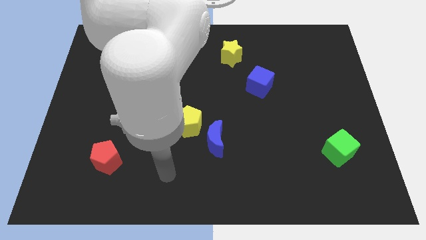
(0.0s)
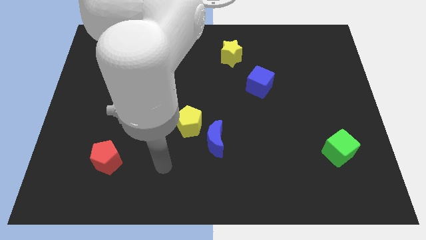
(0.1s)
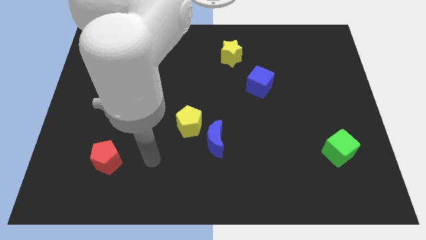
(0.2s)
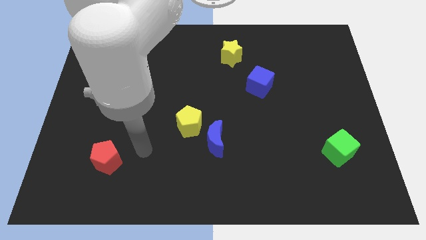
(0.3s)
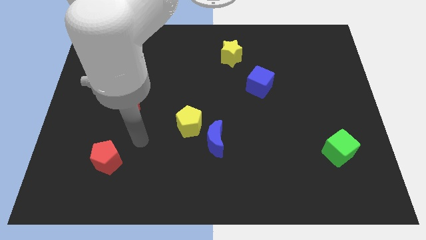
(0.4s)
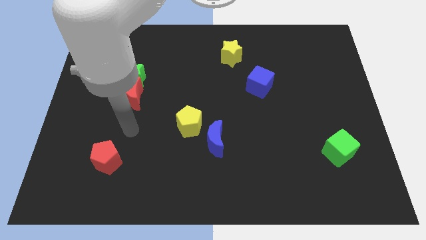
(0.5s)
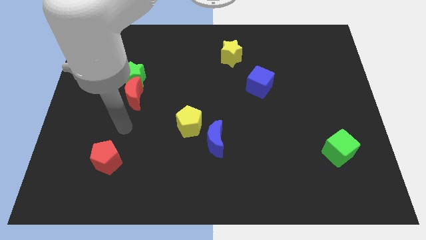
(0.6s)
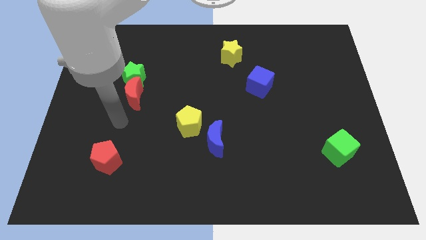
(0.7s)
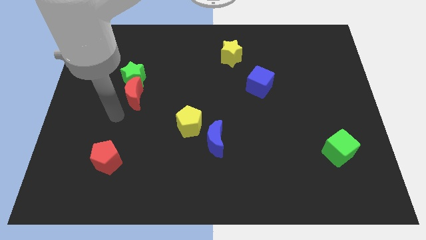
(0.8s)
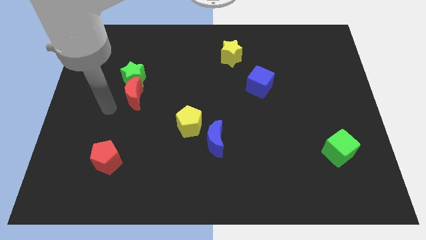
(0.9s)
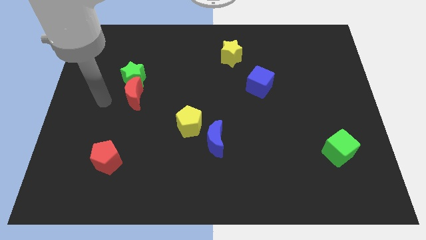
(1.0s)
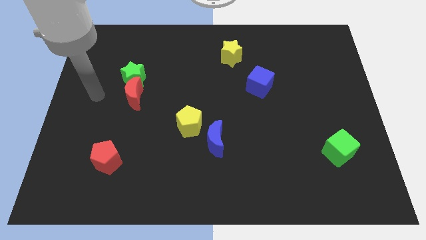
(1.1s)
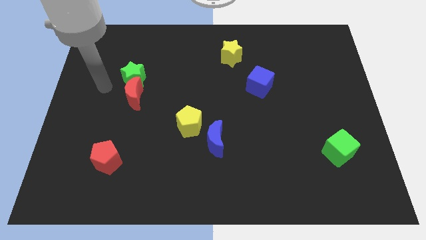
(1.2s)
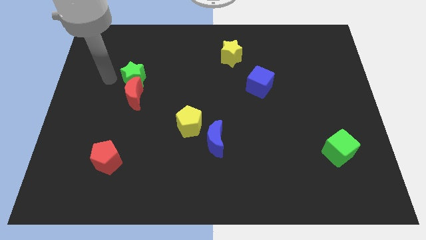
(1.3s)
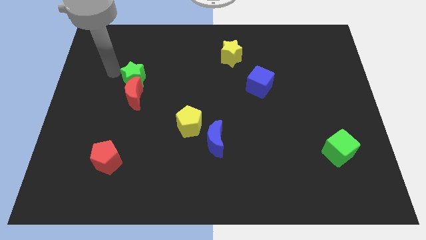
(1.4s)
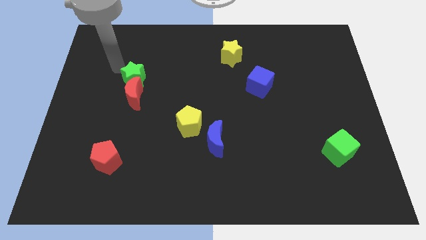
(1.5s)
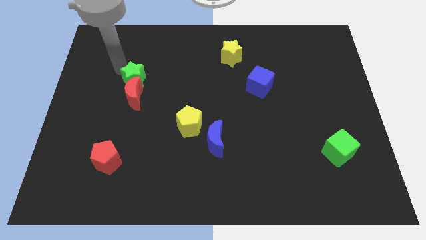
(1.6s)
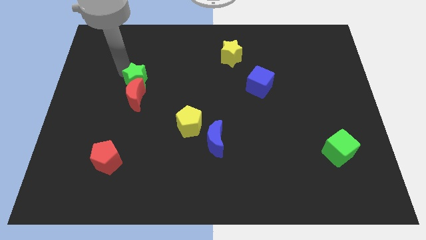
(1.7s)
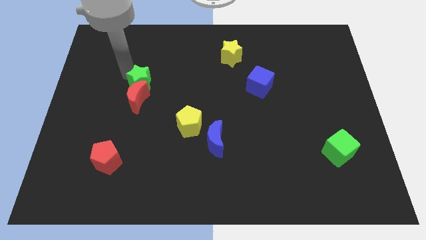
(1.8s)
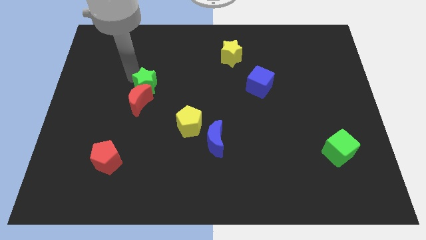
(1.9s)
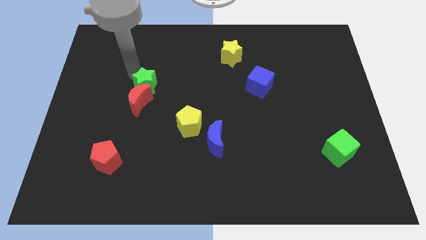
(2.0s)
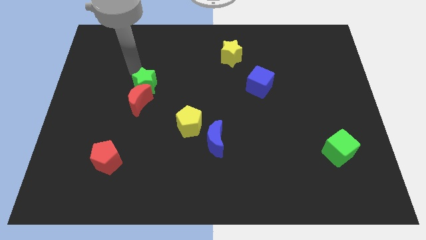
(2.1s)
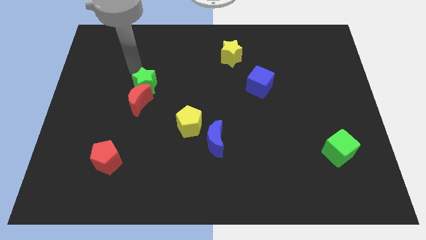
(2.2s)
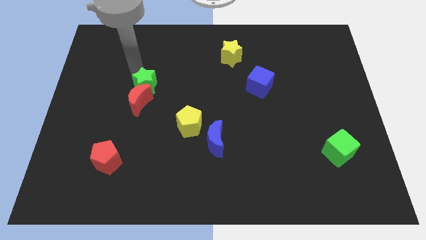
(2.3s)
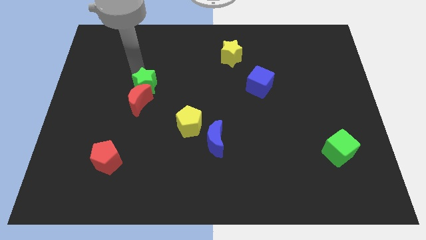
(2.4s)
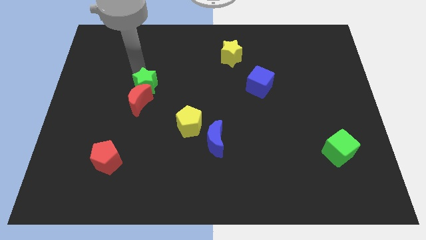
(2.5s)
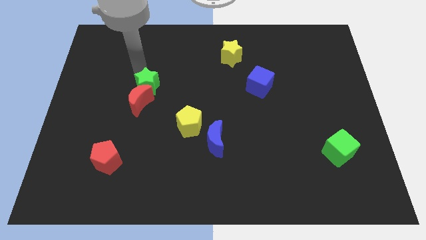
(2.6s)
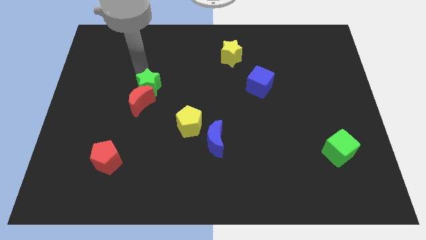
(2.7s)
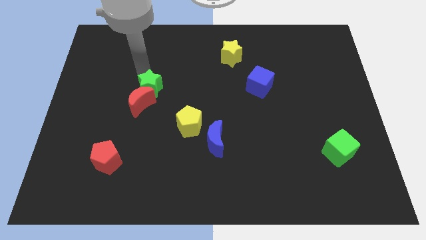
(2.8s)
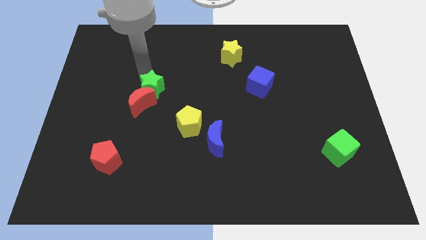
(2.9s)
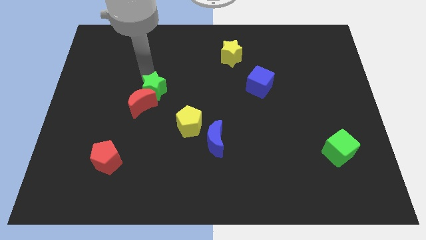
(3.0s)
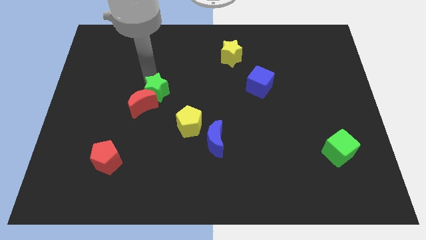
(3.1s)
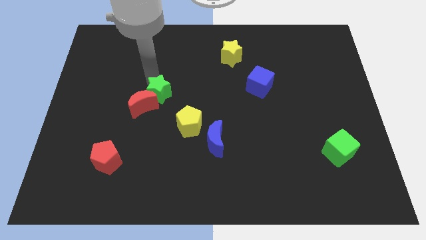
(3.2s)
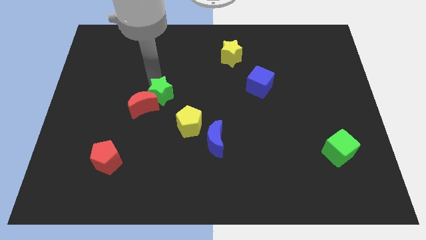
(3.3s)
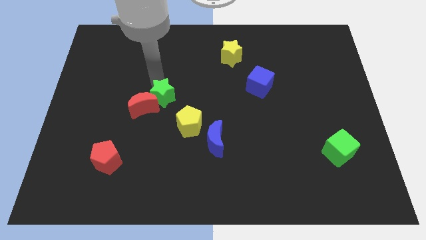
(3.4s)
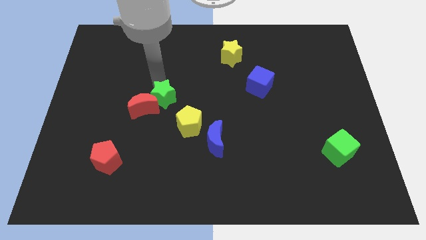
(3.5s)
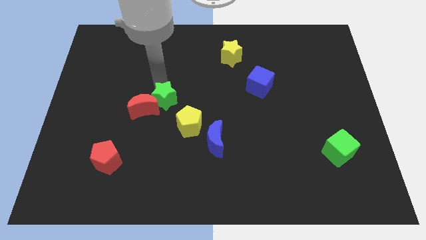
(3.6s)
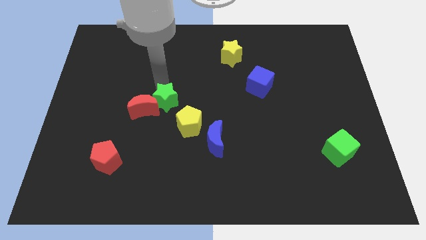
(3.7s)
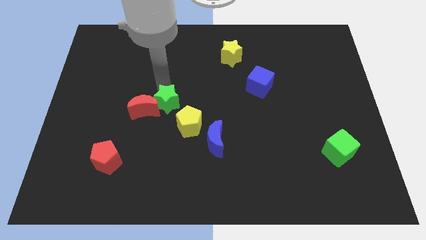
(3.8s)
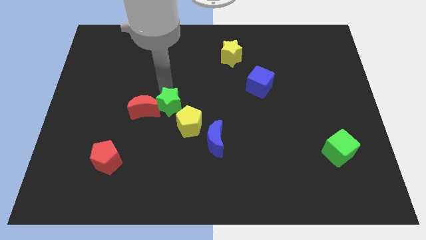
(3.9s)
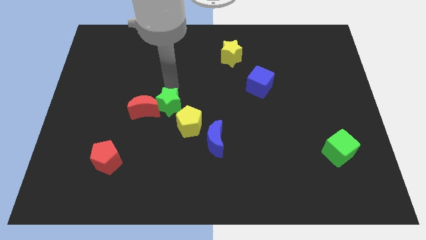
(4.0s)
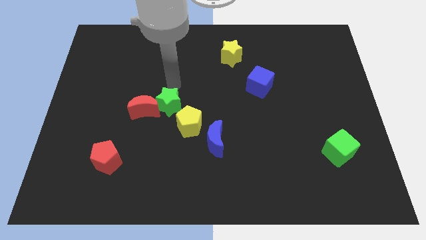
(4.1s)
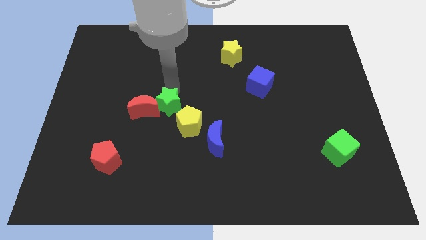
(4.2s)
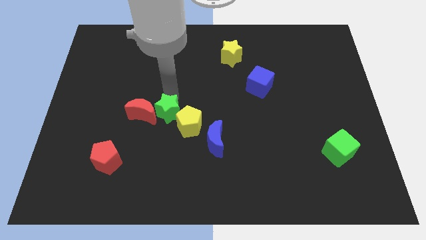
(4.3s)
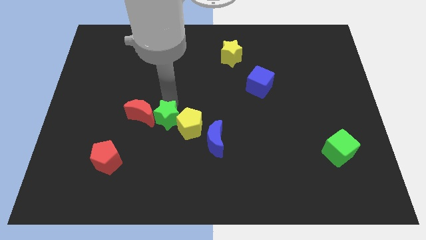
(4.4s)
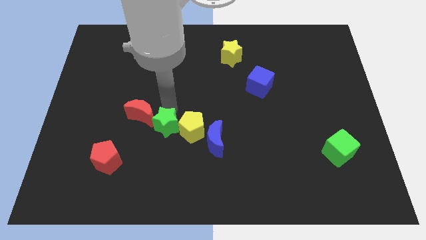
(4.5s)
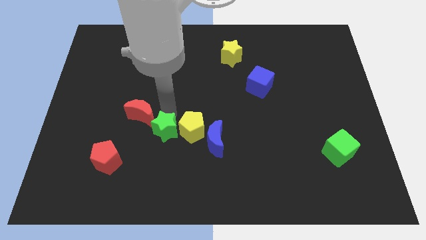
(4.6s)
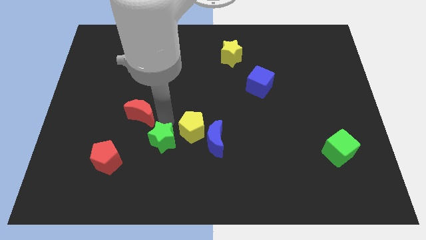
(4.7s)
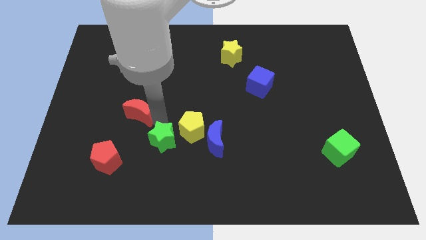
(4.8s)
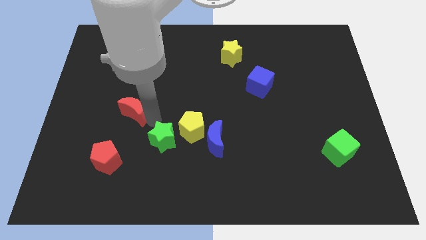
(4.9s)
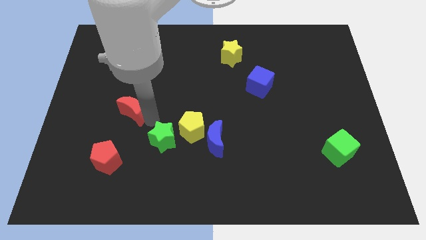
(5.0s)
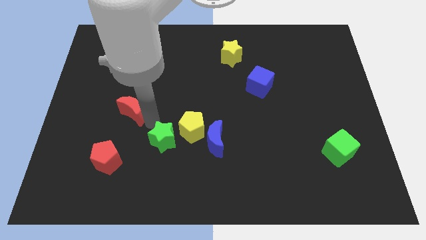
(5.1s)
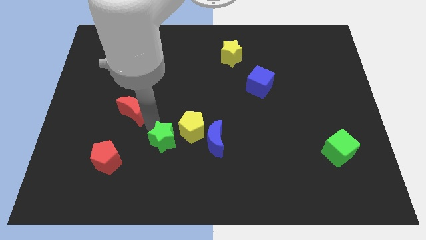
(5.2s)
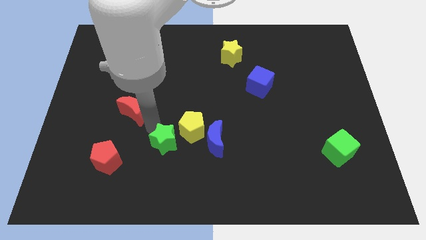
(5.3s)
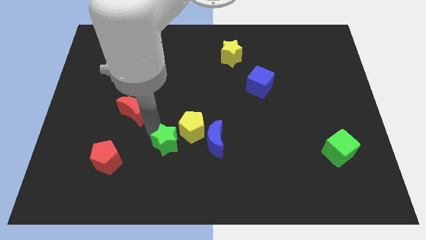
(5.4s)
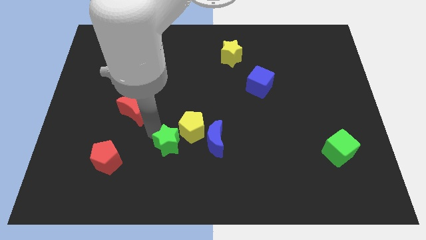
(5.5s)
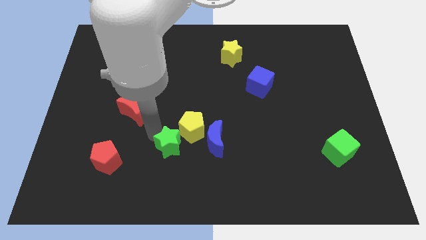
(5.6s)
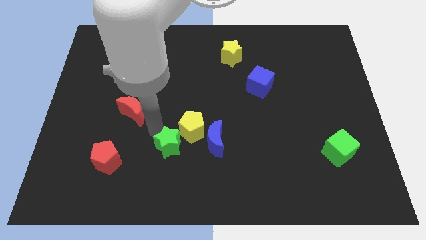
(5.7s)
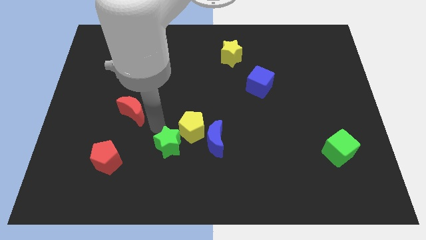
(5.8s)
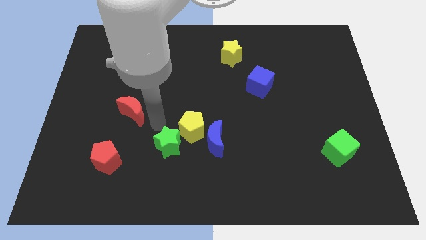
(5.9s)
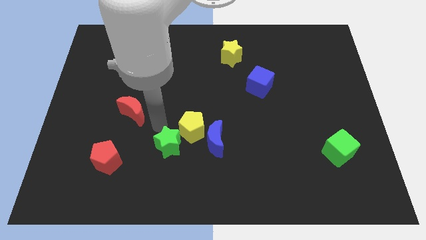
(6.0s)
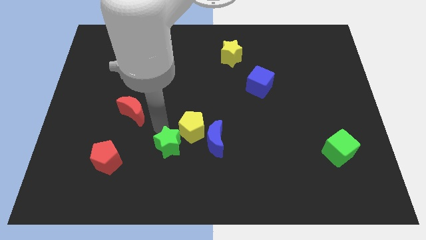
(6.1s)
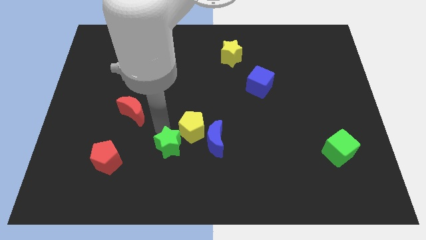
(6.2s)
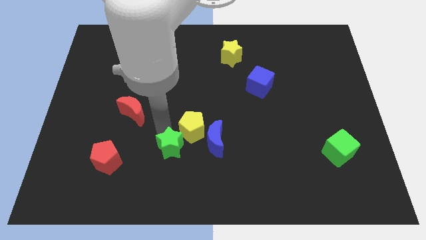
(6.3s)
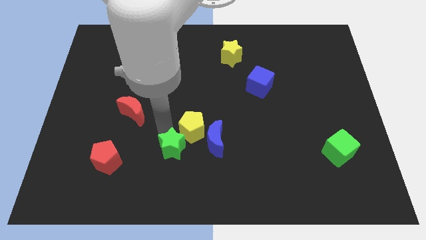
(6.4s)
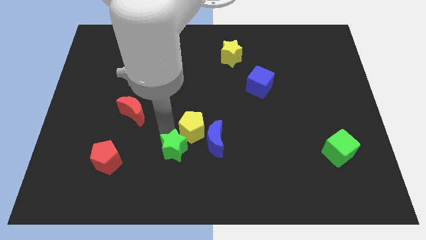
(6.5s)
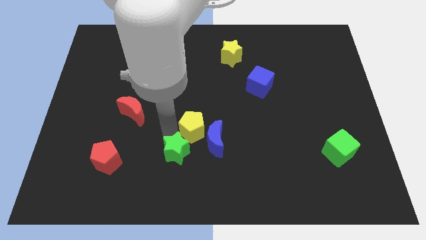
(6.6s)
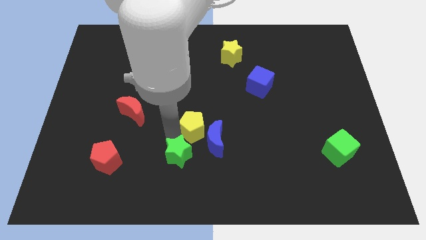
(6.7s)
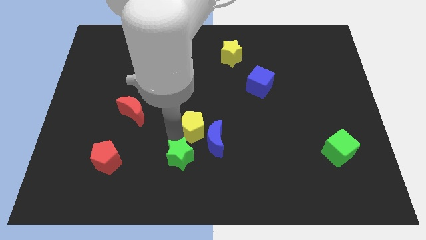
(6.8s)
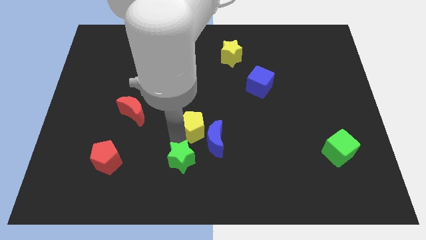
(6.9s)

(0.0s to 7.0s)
put the green star to the bottom side

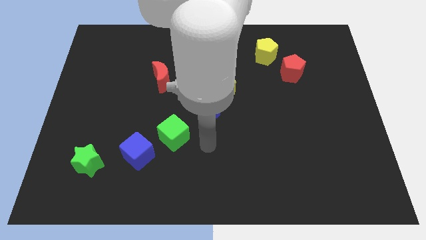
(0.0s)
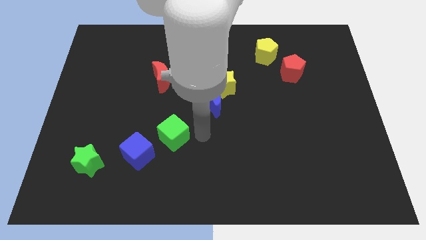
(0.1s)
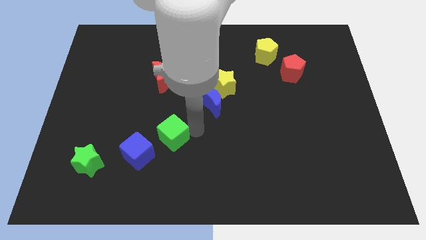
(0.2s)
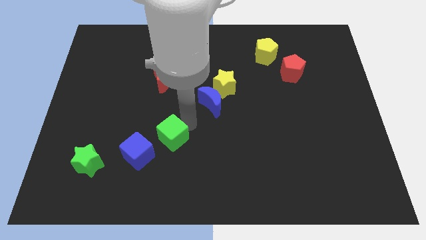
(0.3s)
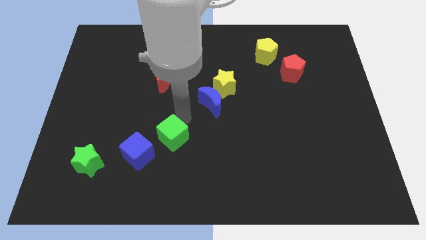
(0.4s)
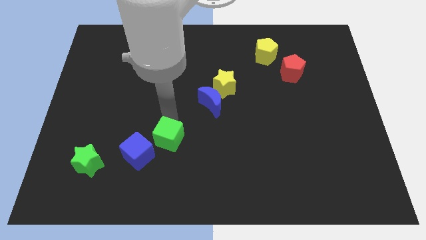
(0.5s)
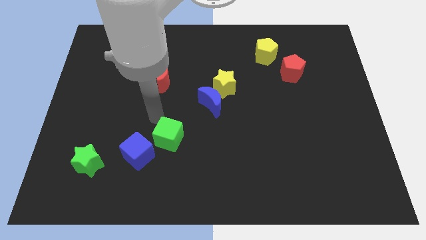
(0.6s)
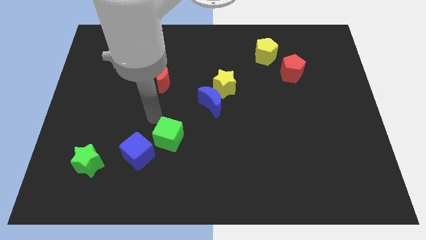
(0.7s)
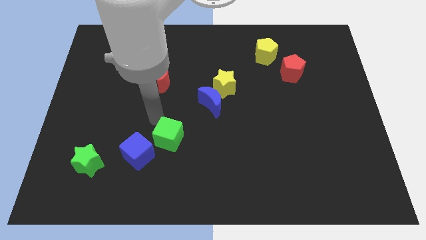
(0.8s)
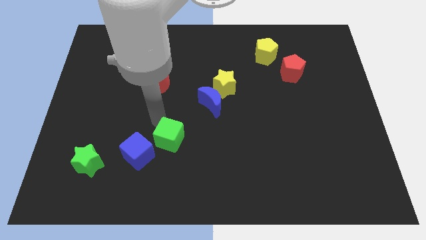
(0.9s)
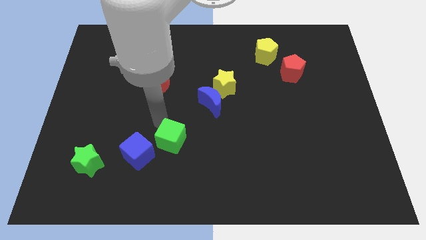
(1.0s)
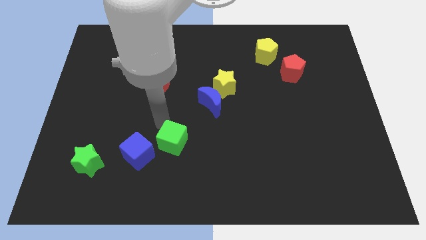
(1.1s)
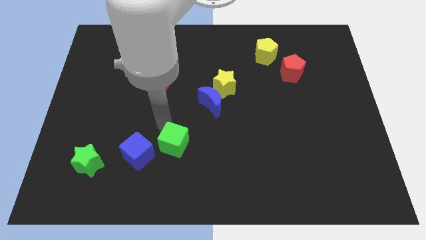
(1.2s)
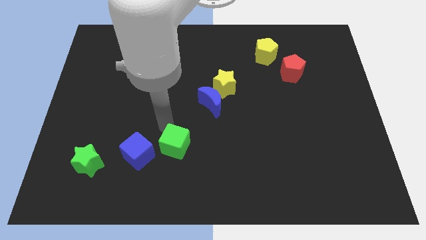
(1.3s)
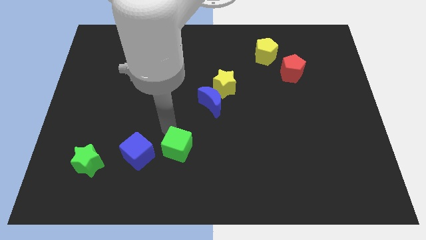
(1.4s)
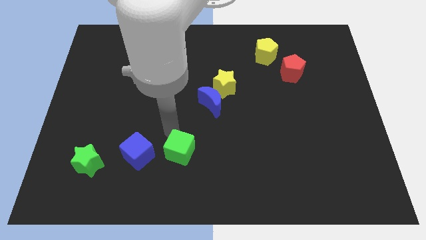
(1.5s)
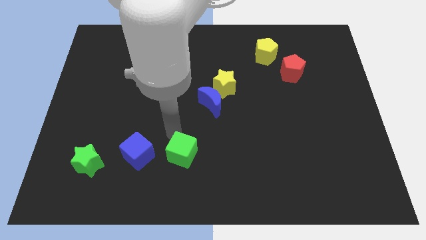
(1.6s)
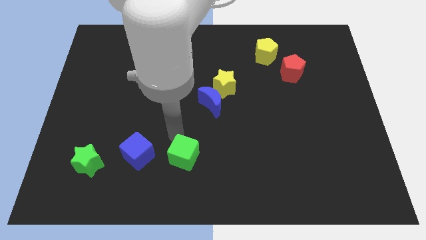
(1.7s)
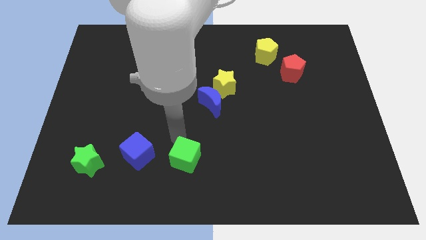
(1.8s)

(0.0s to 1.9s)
move the green cube to the bottom side
